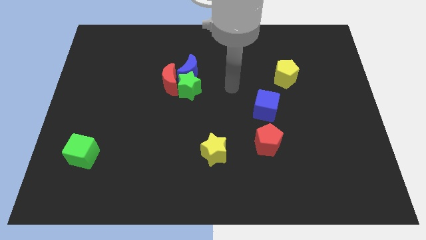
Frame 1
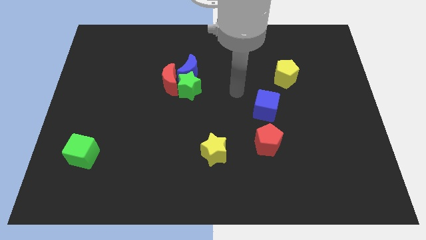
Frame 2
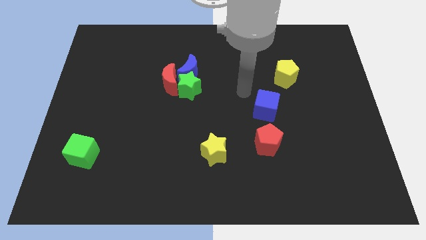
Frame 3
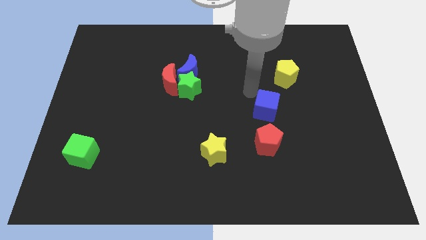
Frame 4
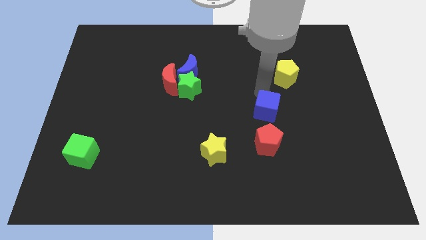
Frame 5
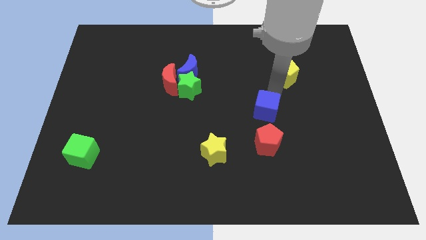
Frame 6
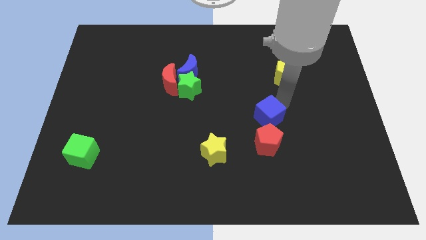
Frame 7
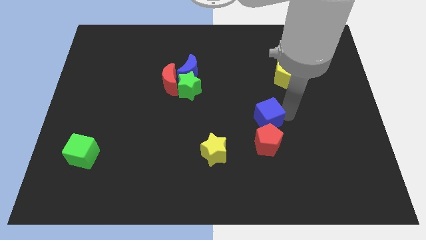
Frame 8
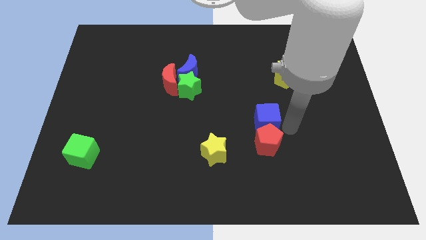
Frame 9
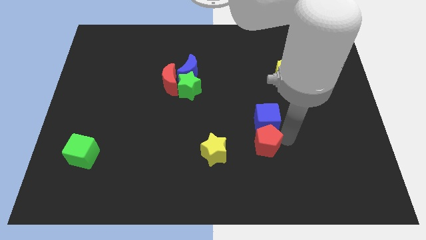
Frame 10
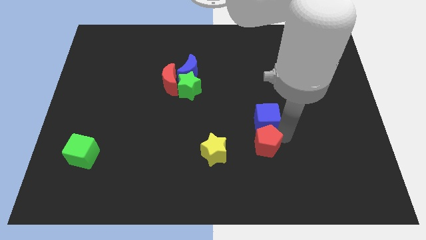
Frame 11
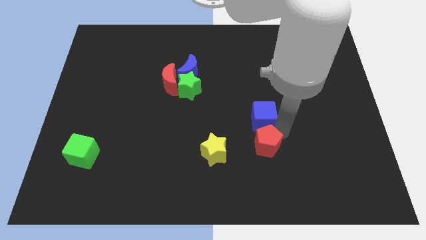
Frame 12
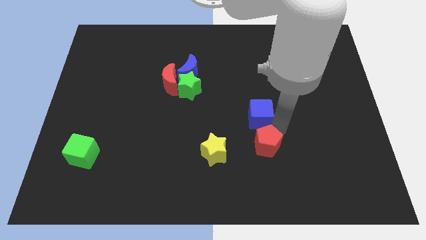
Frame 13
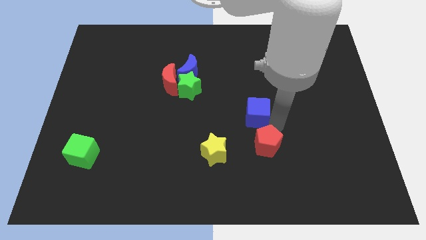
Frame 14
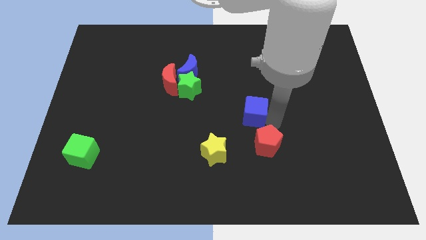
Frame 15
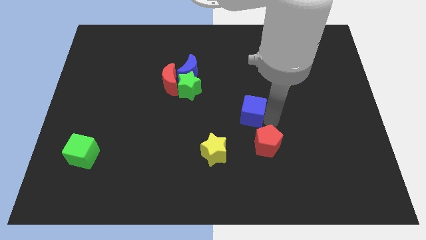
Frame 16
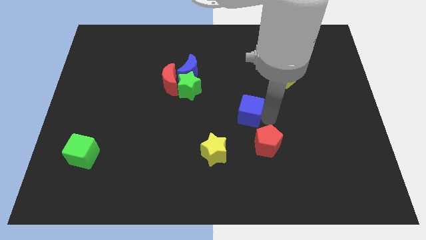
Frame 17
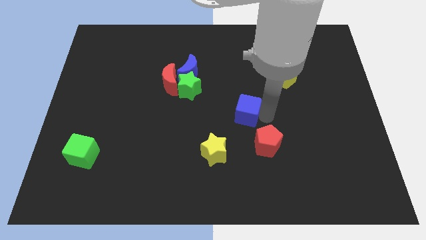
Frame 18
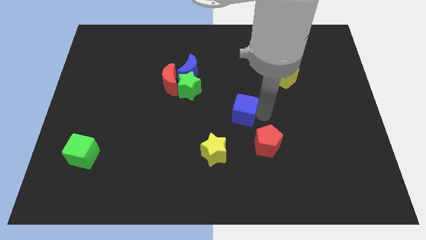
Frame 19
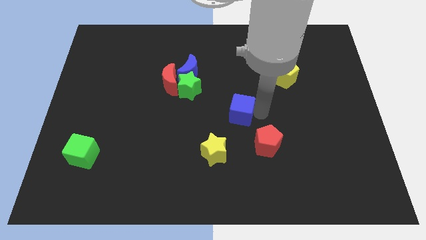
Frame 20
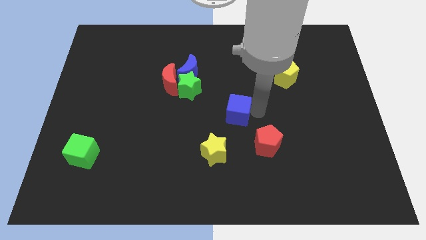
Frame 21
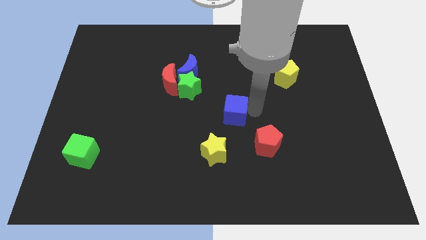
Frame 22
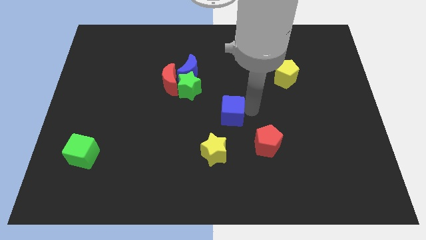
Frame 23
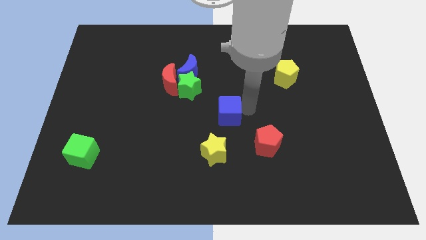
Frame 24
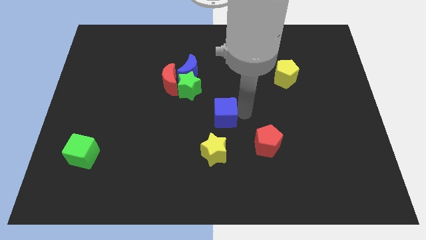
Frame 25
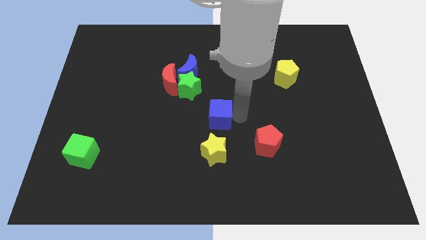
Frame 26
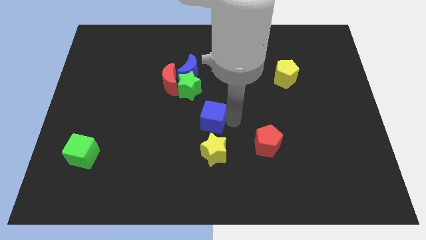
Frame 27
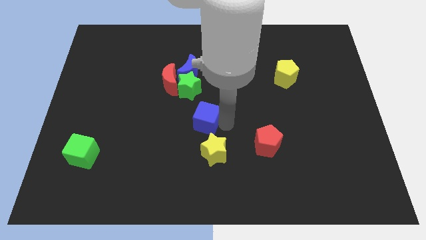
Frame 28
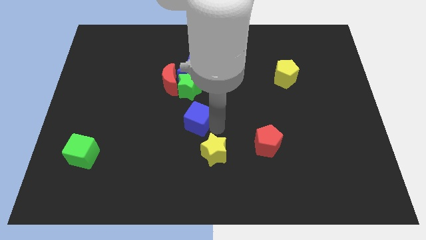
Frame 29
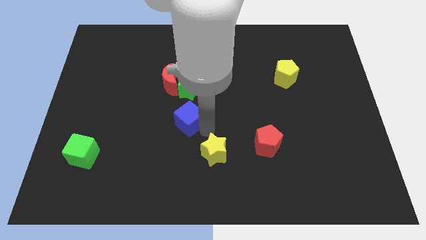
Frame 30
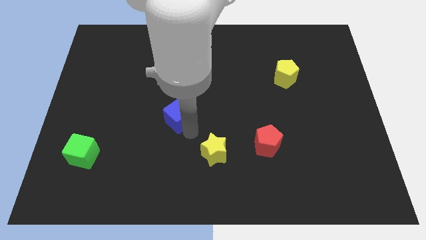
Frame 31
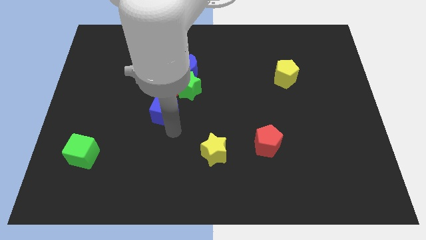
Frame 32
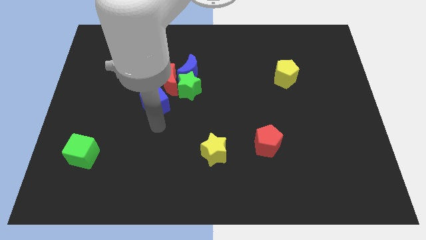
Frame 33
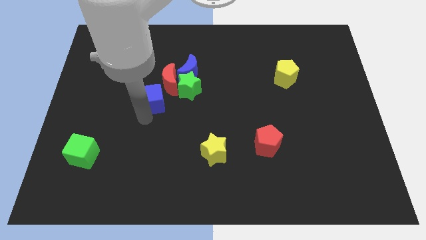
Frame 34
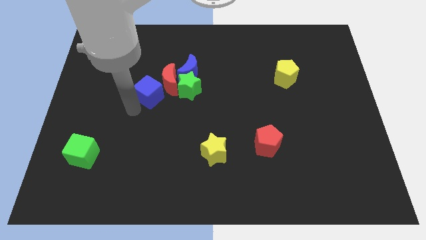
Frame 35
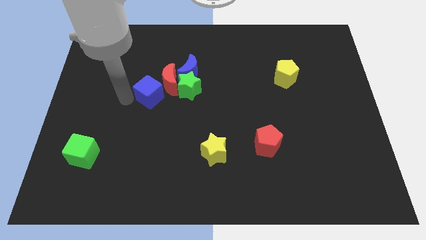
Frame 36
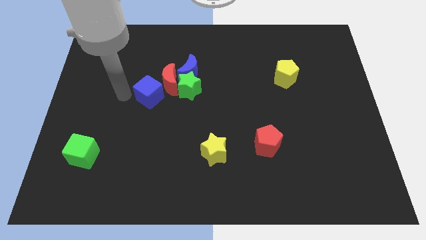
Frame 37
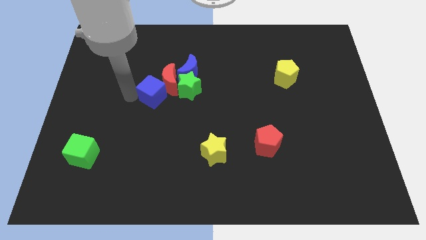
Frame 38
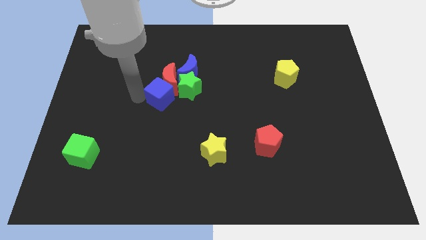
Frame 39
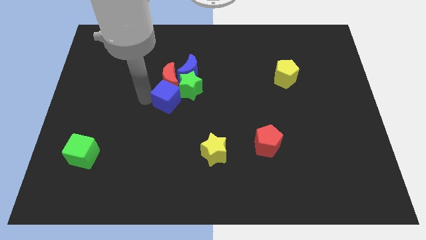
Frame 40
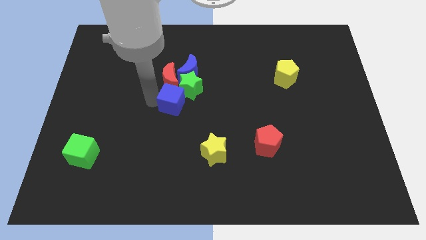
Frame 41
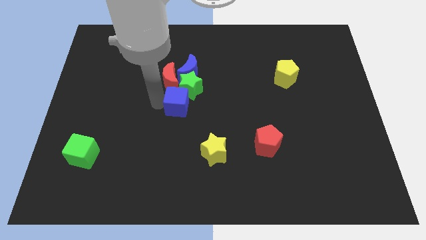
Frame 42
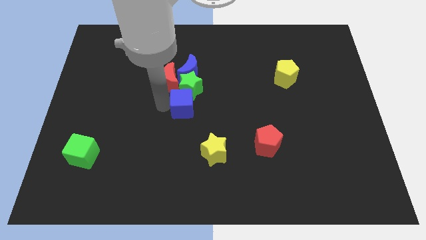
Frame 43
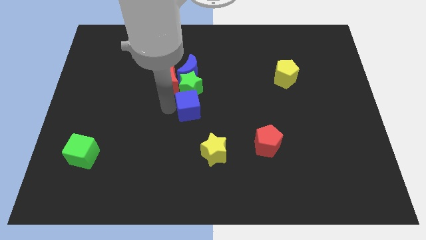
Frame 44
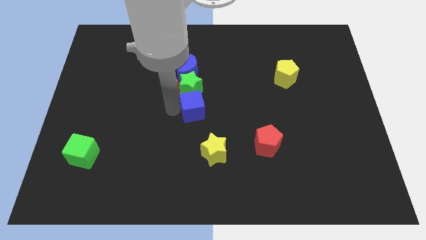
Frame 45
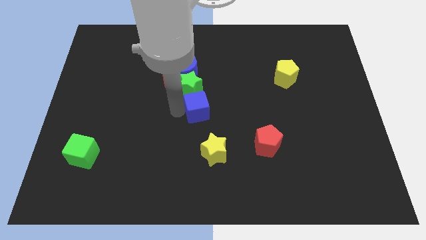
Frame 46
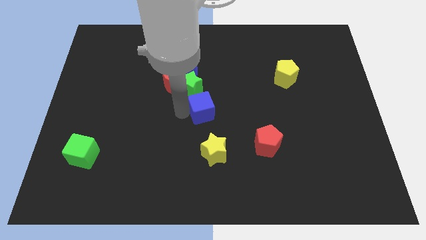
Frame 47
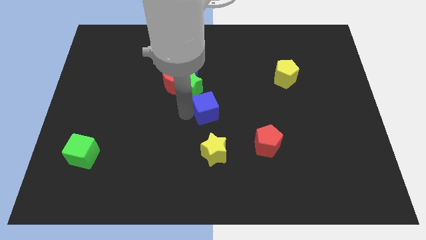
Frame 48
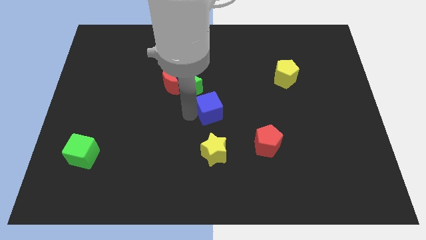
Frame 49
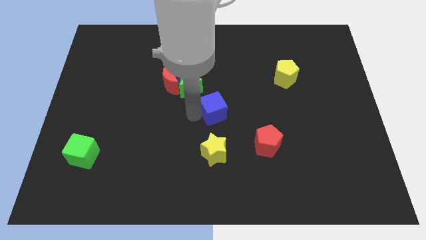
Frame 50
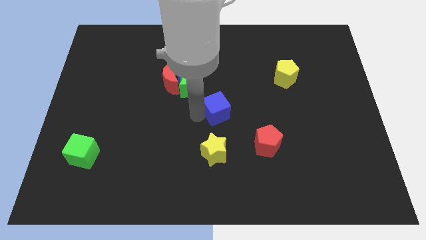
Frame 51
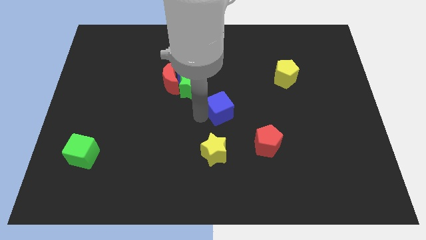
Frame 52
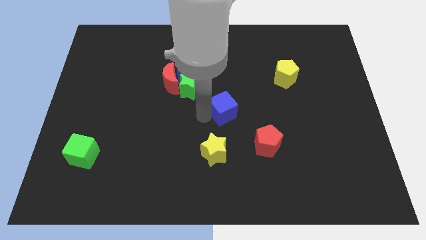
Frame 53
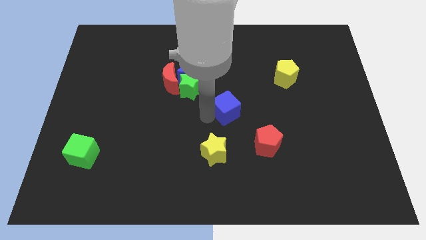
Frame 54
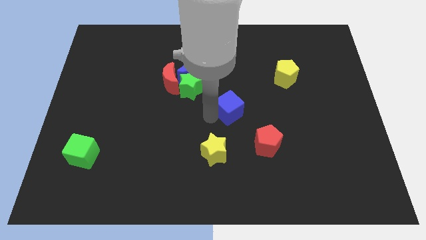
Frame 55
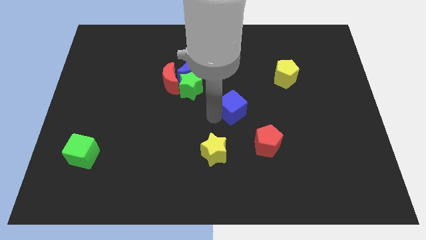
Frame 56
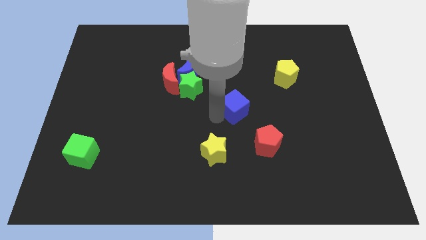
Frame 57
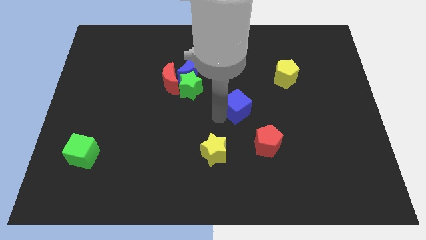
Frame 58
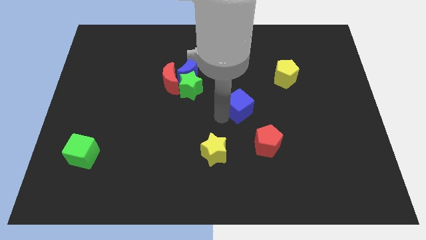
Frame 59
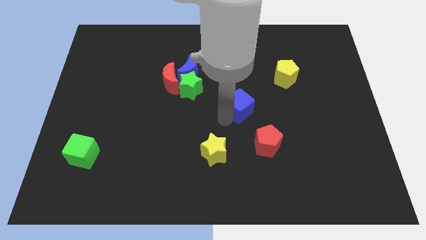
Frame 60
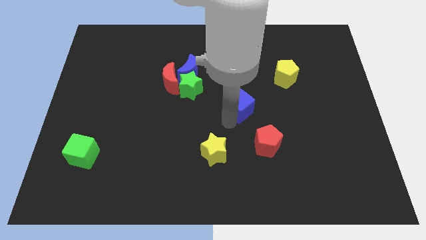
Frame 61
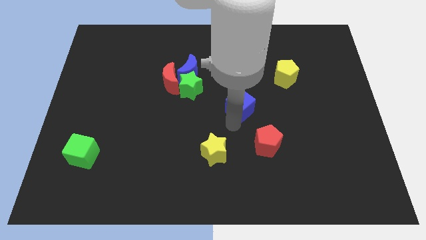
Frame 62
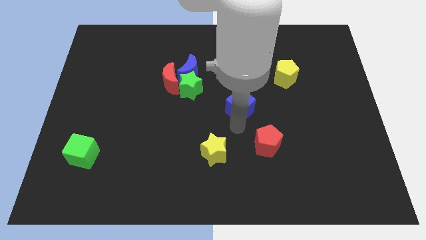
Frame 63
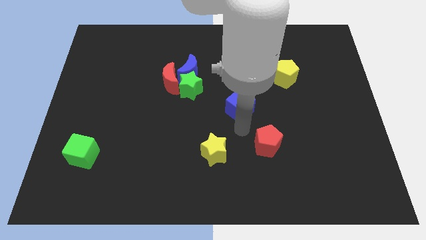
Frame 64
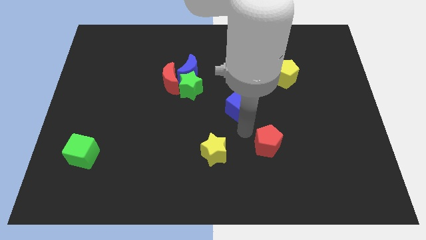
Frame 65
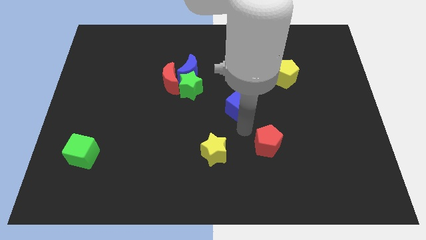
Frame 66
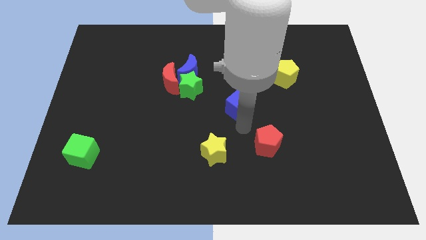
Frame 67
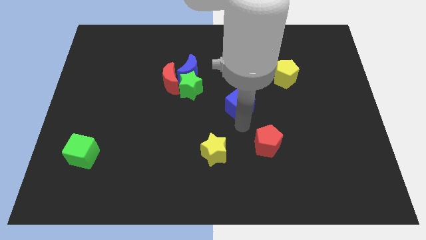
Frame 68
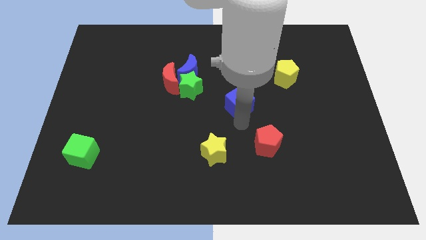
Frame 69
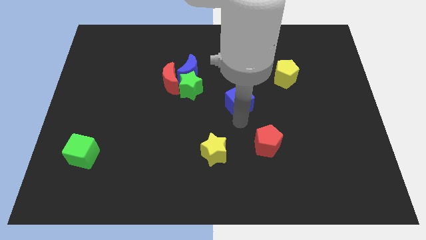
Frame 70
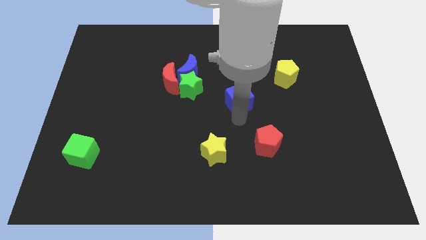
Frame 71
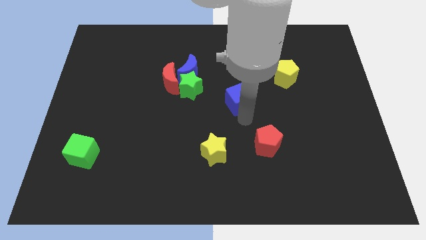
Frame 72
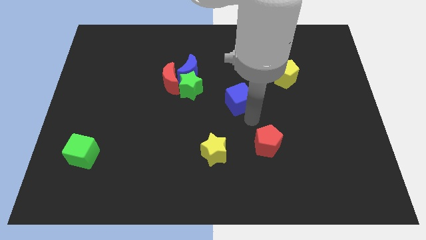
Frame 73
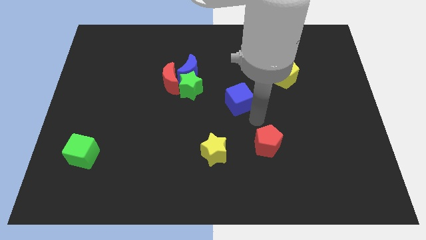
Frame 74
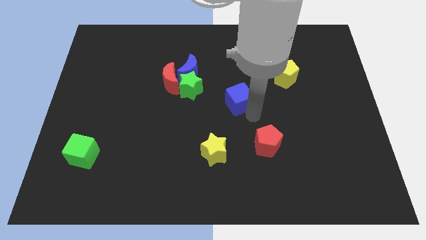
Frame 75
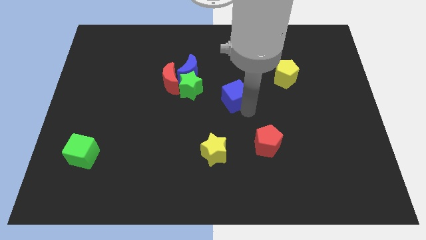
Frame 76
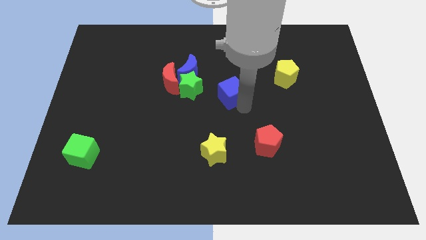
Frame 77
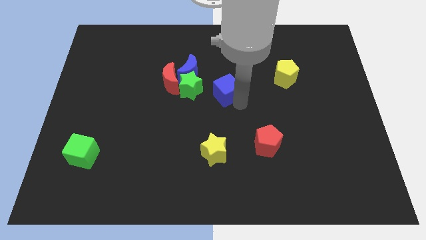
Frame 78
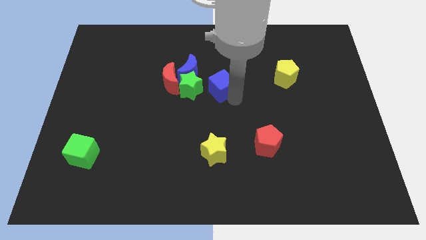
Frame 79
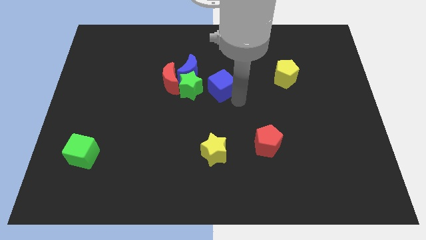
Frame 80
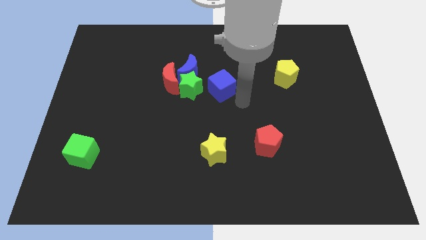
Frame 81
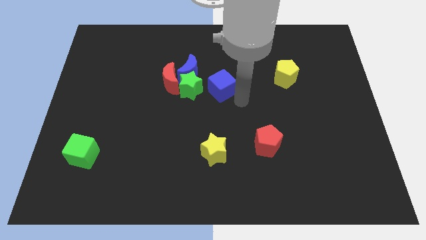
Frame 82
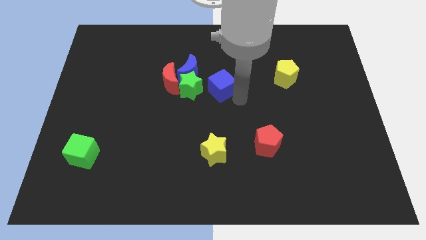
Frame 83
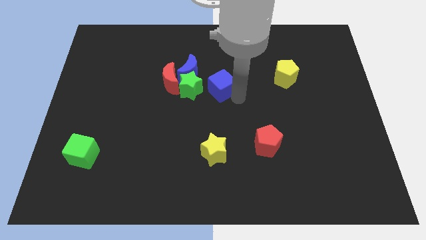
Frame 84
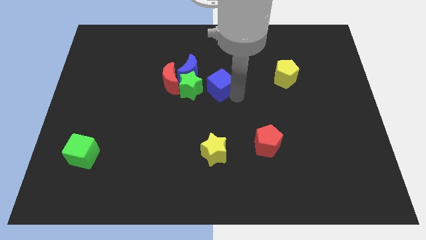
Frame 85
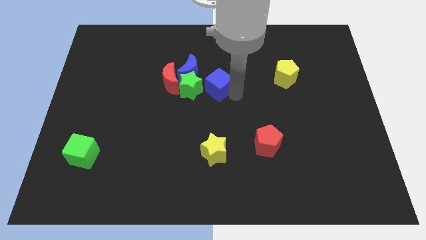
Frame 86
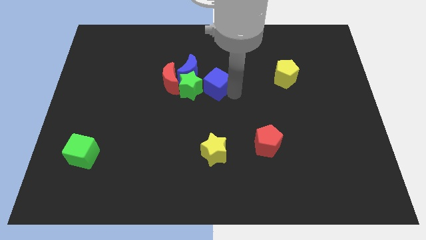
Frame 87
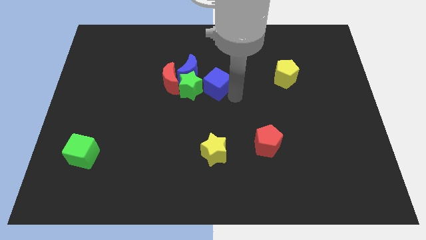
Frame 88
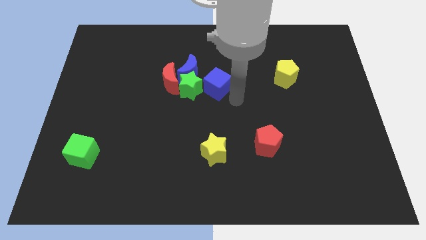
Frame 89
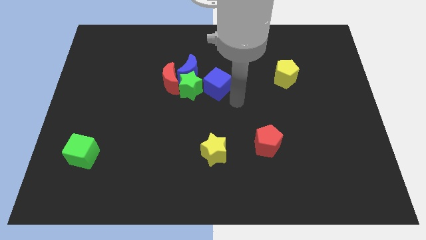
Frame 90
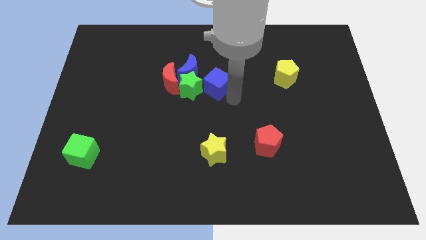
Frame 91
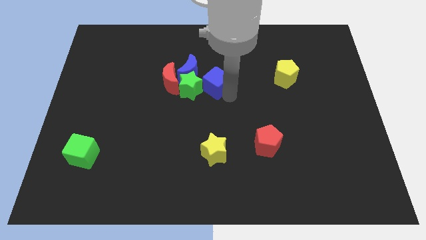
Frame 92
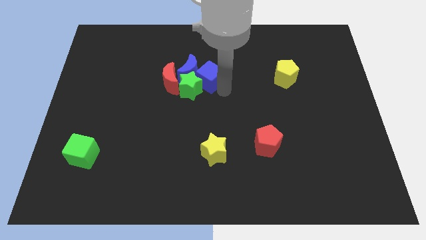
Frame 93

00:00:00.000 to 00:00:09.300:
push the blue cube to the blue moon
